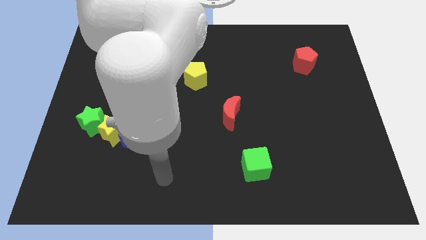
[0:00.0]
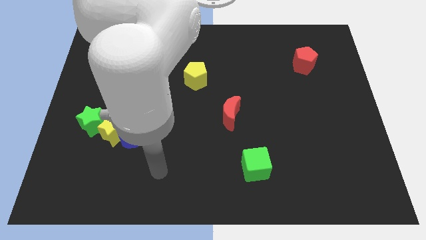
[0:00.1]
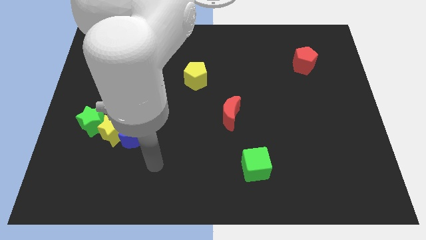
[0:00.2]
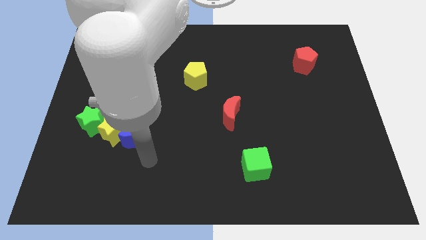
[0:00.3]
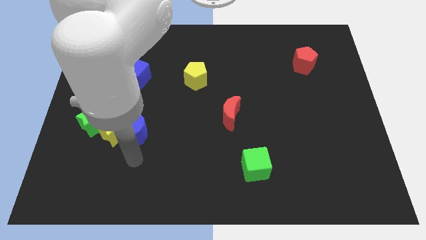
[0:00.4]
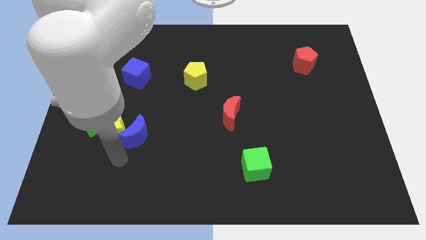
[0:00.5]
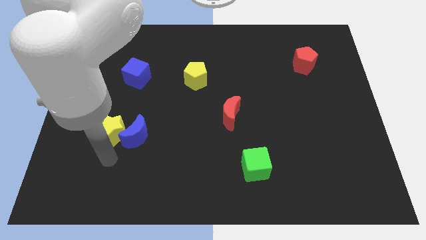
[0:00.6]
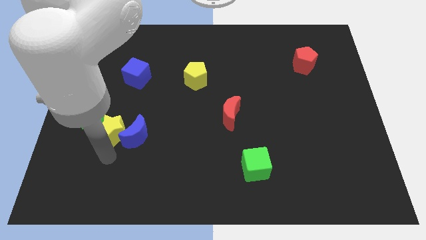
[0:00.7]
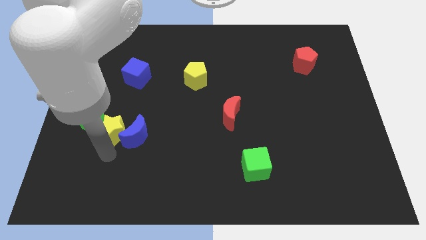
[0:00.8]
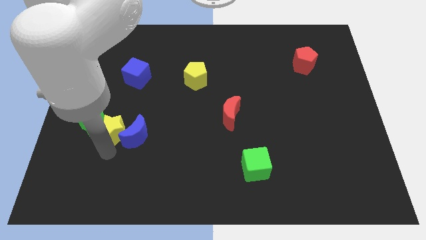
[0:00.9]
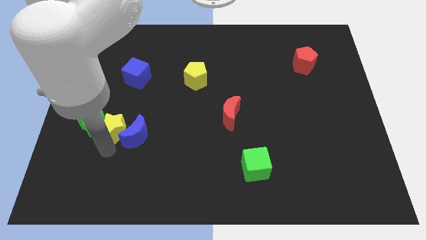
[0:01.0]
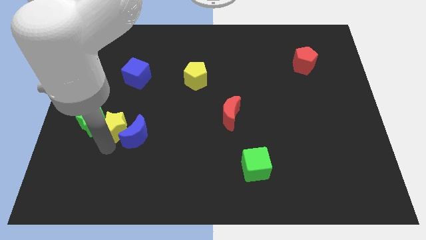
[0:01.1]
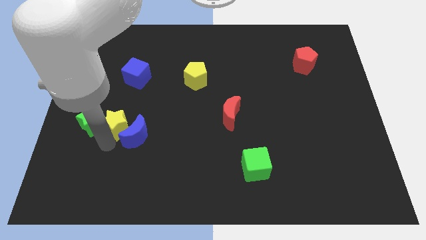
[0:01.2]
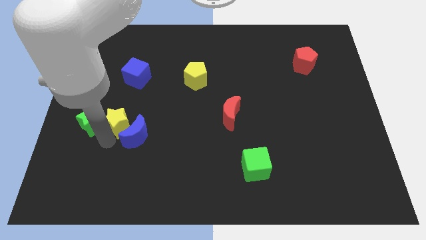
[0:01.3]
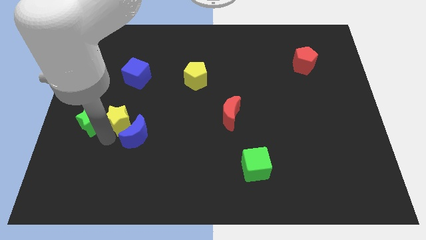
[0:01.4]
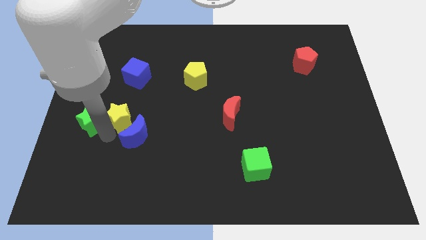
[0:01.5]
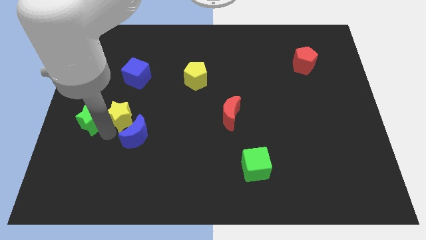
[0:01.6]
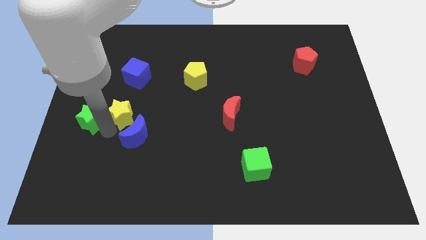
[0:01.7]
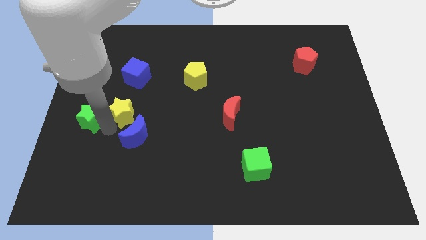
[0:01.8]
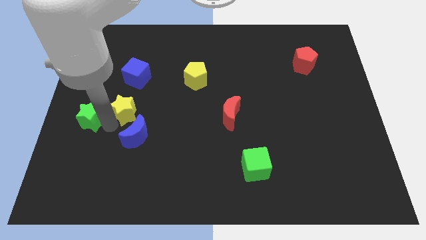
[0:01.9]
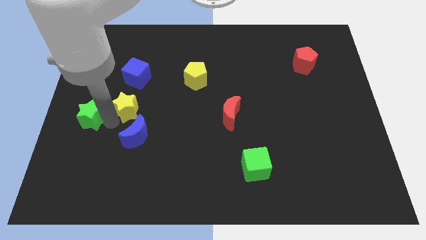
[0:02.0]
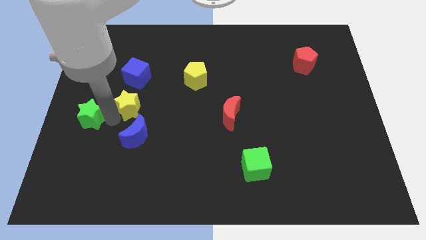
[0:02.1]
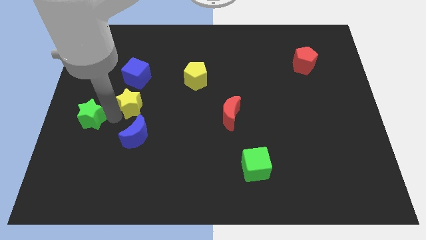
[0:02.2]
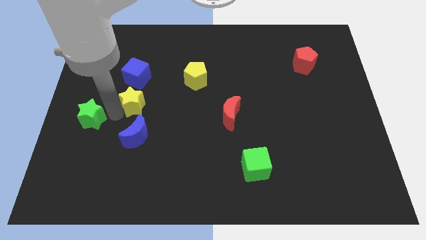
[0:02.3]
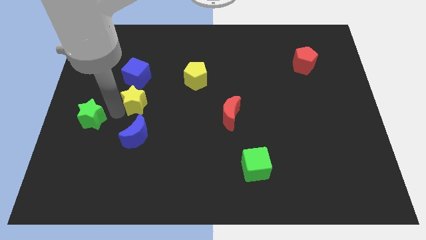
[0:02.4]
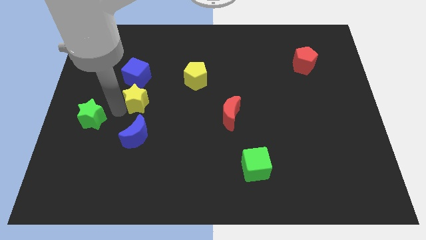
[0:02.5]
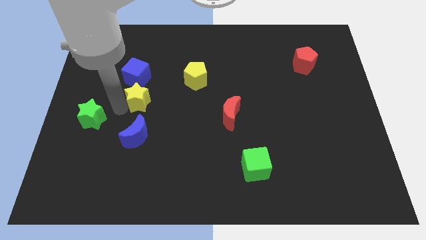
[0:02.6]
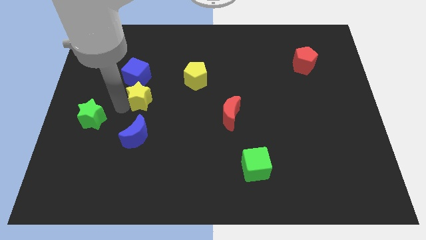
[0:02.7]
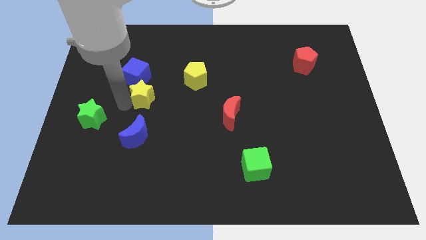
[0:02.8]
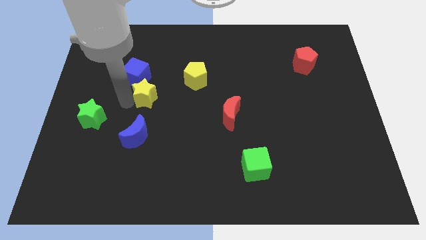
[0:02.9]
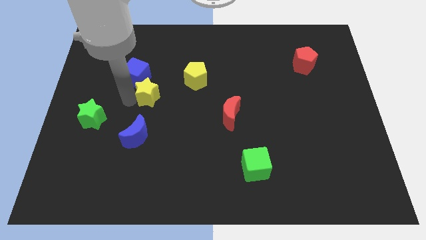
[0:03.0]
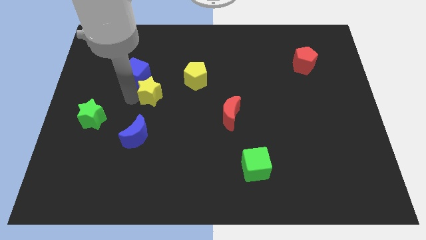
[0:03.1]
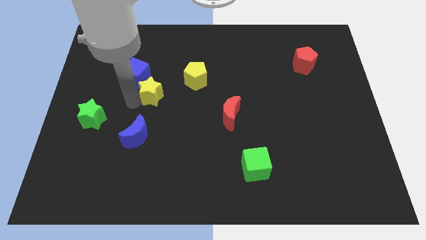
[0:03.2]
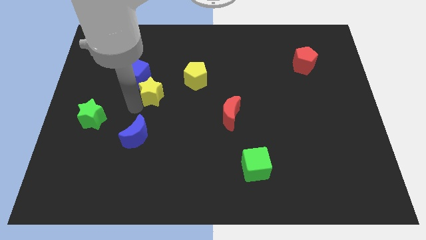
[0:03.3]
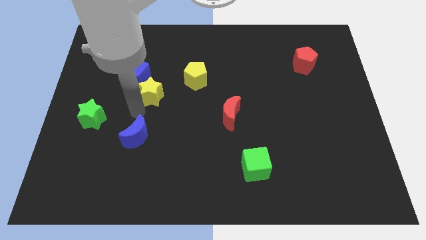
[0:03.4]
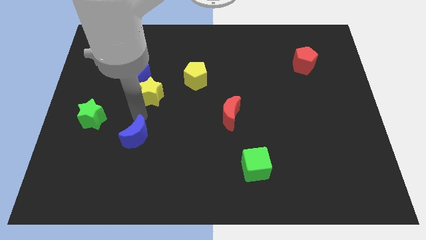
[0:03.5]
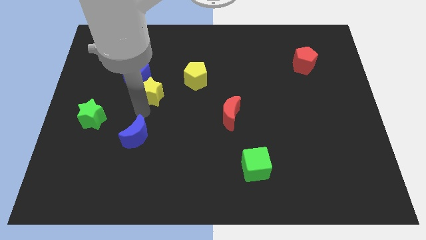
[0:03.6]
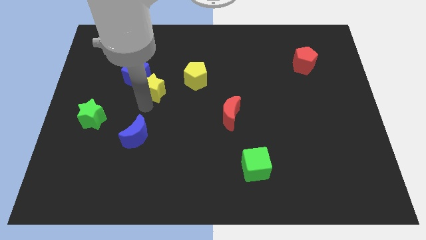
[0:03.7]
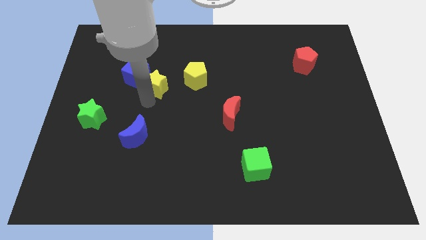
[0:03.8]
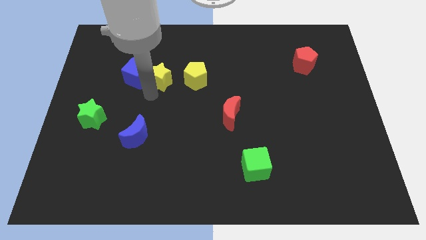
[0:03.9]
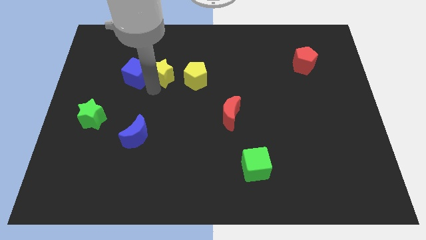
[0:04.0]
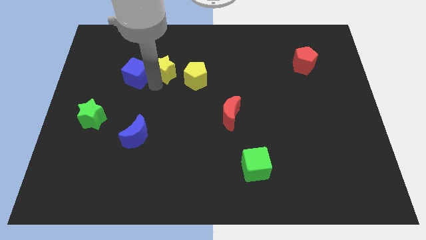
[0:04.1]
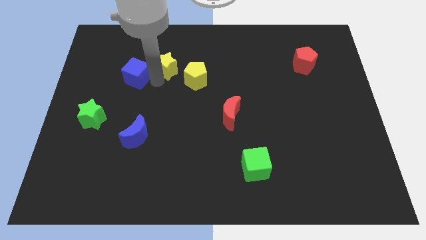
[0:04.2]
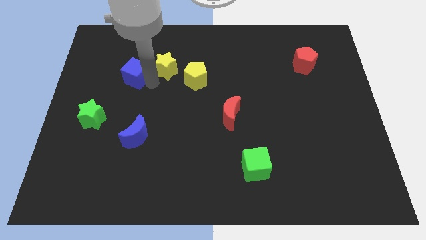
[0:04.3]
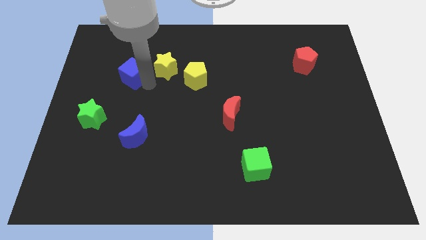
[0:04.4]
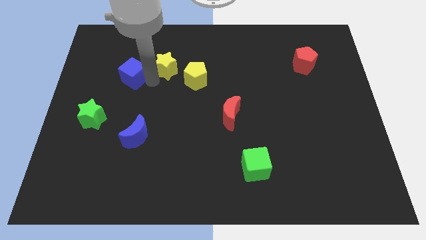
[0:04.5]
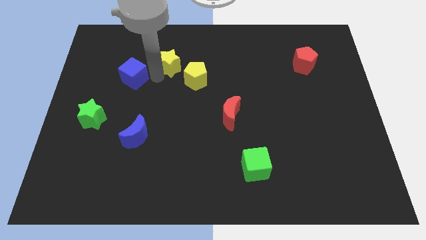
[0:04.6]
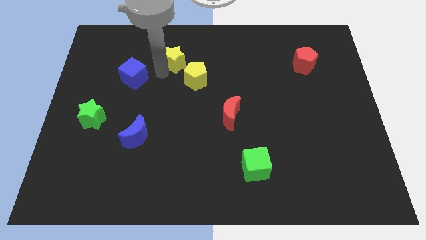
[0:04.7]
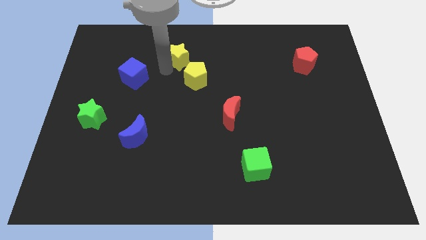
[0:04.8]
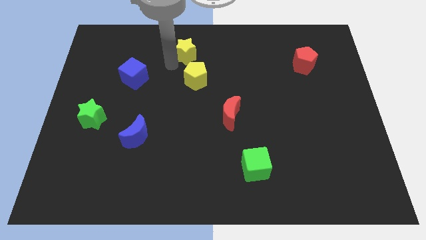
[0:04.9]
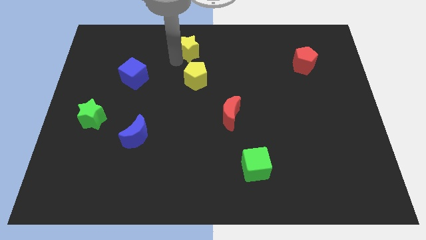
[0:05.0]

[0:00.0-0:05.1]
move the yellow star to the towards your base

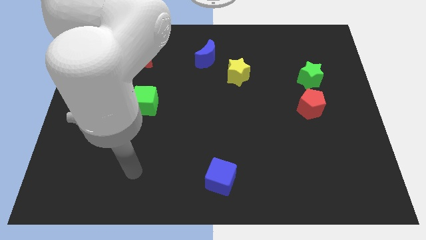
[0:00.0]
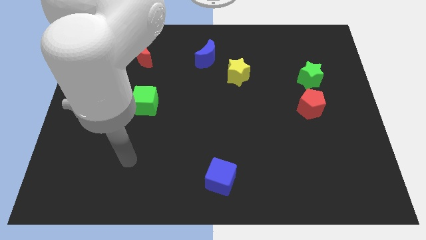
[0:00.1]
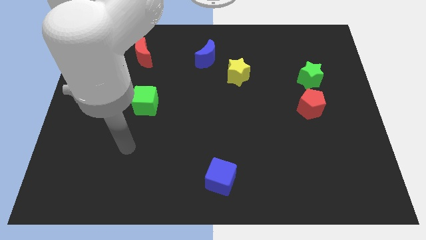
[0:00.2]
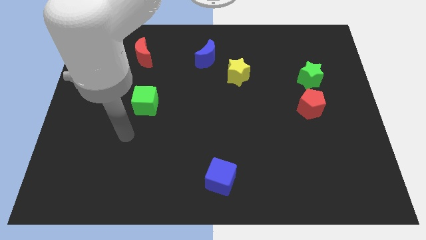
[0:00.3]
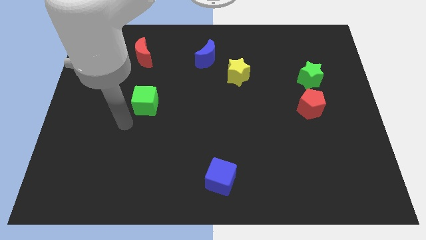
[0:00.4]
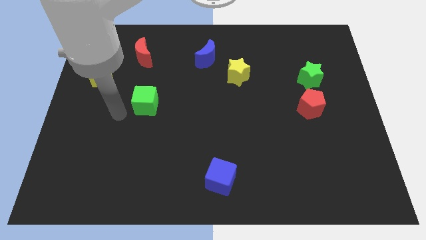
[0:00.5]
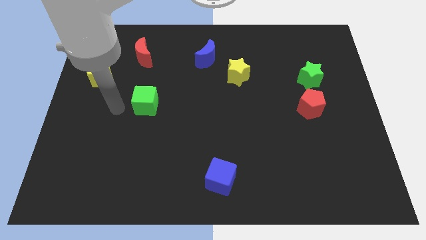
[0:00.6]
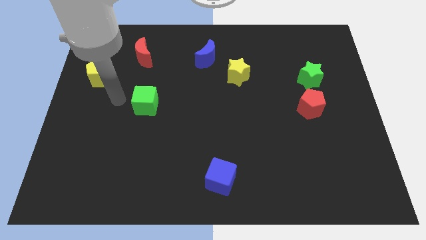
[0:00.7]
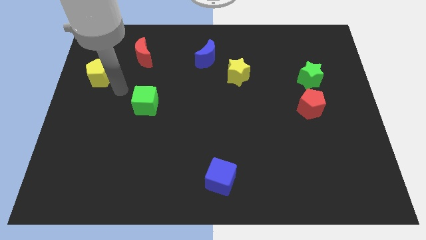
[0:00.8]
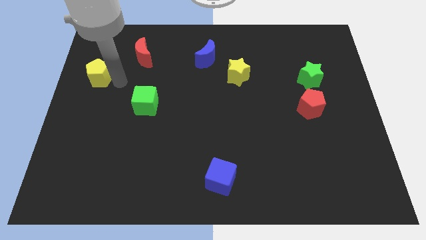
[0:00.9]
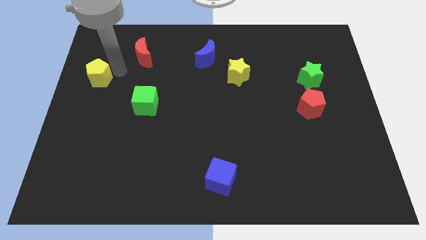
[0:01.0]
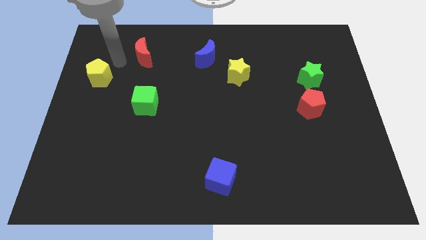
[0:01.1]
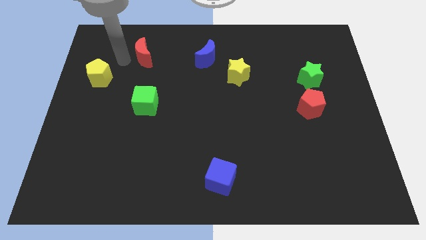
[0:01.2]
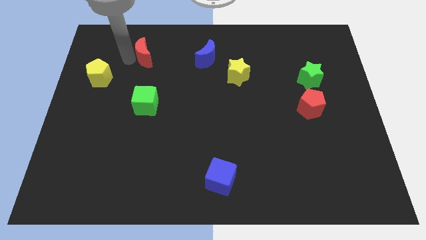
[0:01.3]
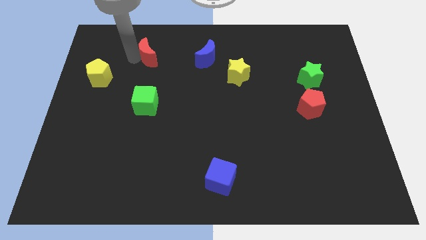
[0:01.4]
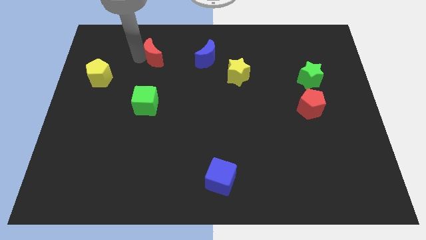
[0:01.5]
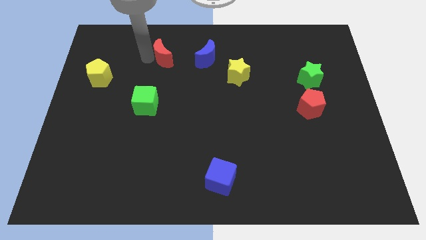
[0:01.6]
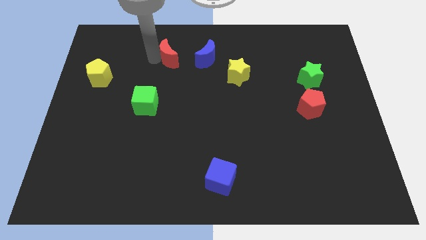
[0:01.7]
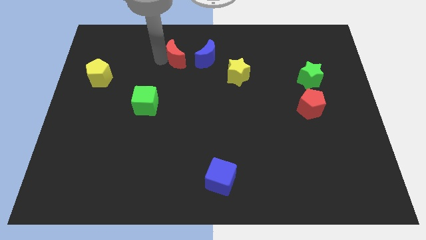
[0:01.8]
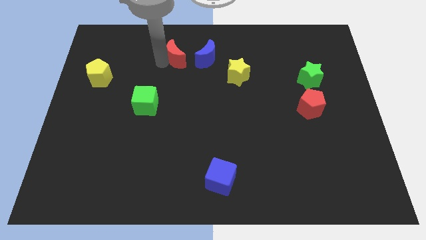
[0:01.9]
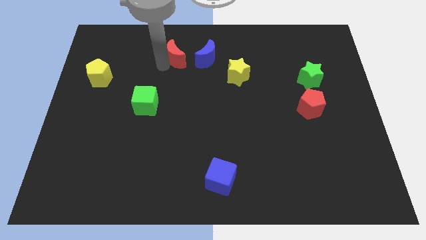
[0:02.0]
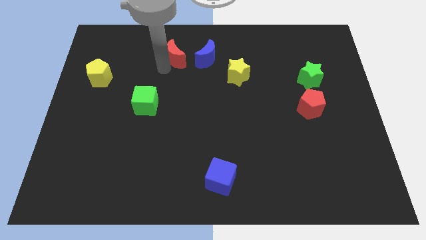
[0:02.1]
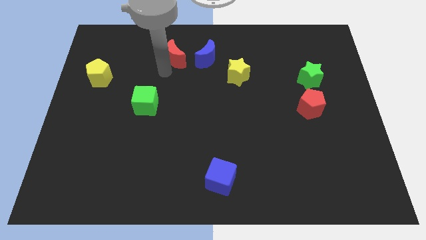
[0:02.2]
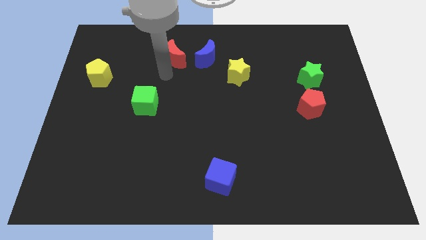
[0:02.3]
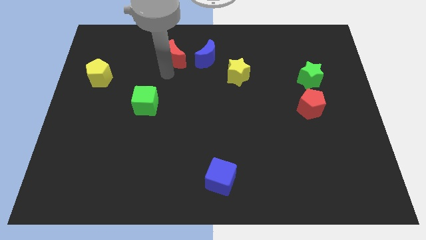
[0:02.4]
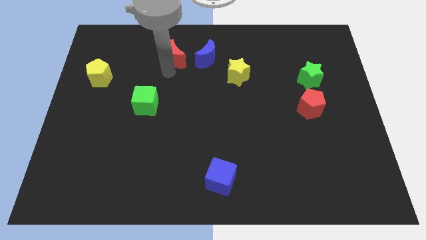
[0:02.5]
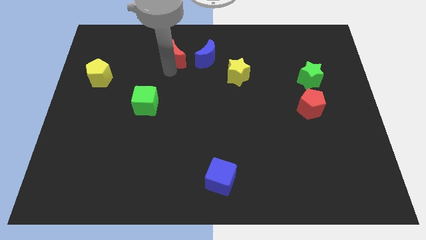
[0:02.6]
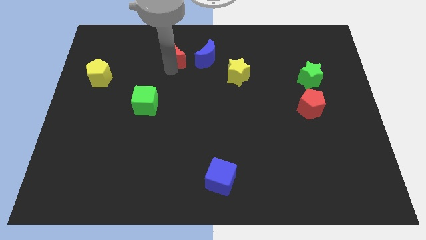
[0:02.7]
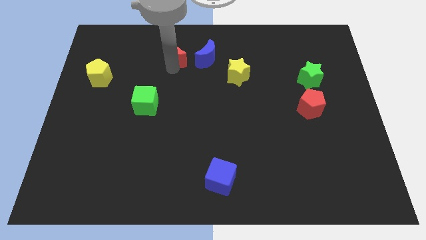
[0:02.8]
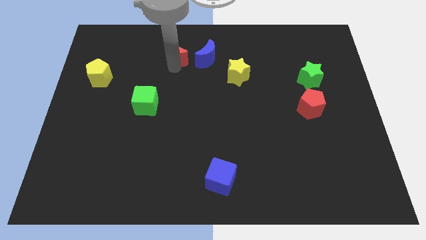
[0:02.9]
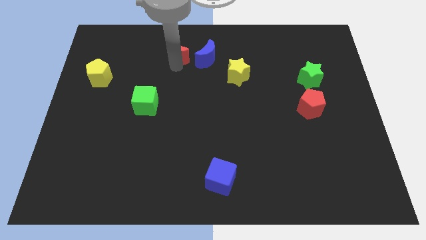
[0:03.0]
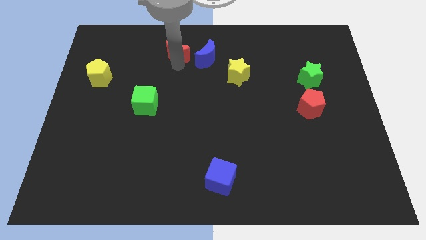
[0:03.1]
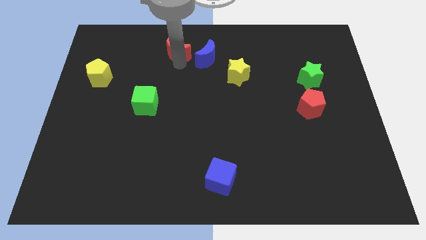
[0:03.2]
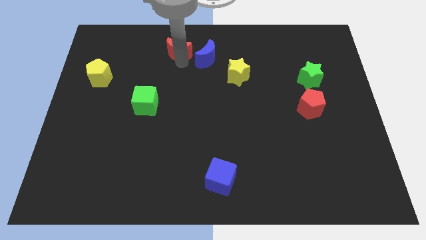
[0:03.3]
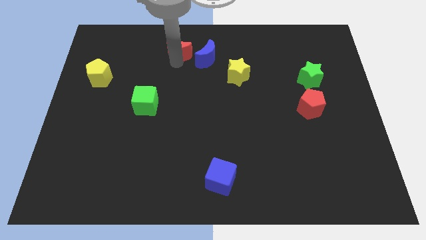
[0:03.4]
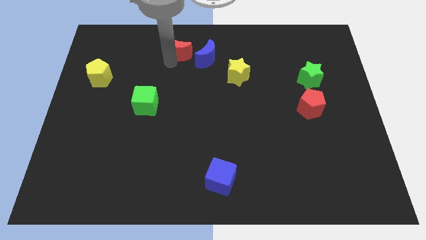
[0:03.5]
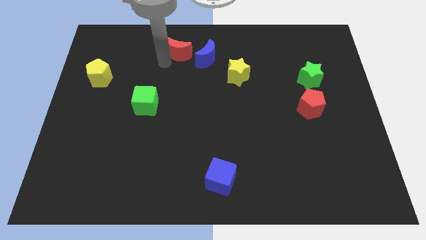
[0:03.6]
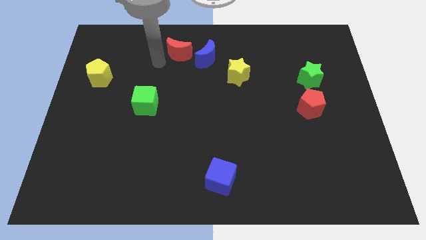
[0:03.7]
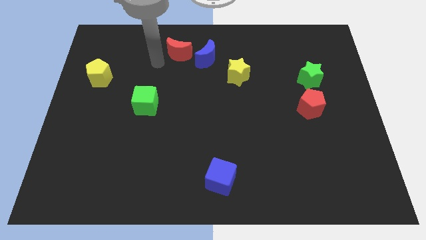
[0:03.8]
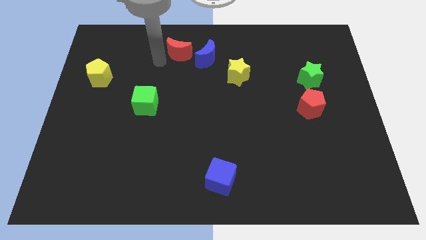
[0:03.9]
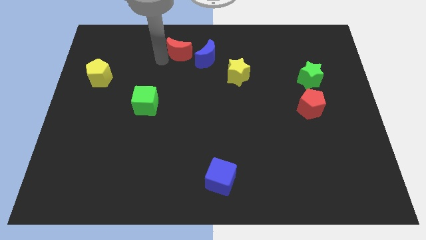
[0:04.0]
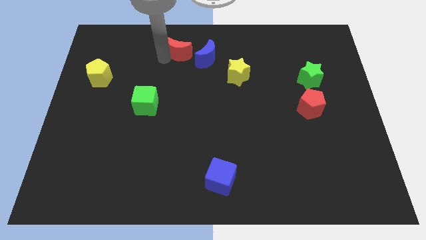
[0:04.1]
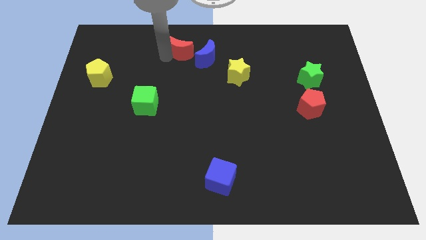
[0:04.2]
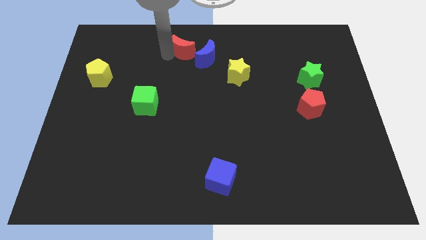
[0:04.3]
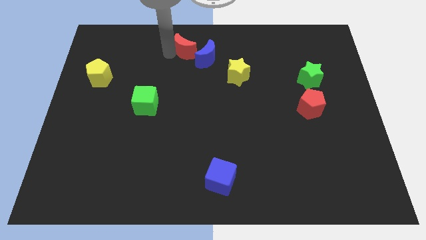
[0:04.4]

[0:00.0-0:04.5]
push the red moon to the top side
